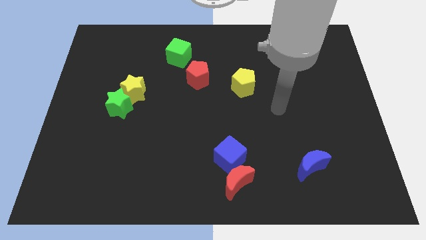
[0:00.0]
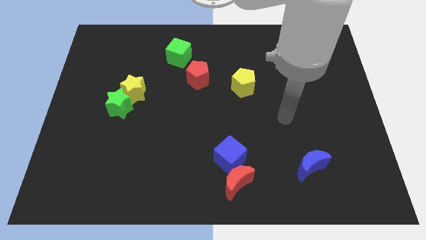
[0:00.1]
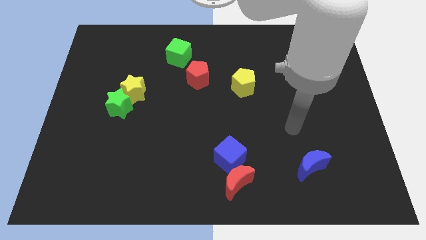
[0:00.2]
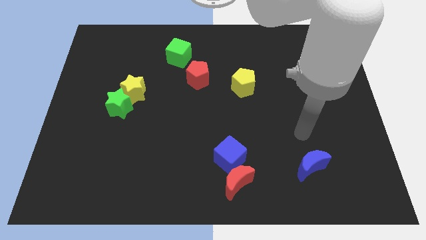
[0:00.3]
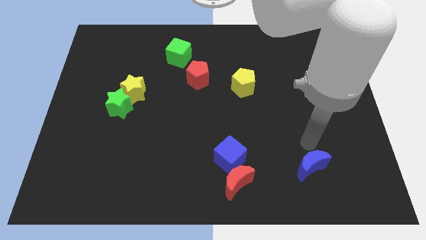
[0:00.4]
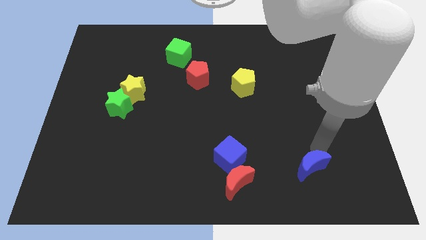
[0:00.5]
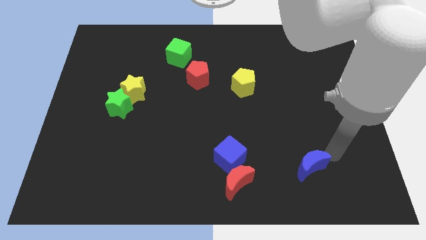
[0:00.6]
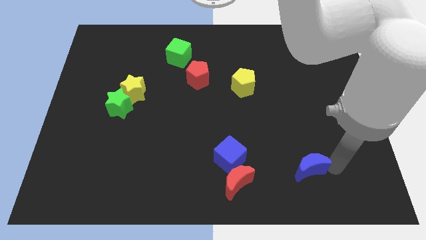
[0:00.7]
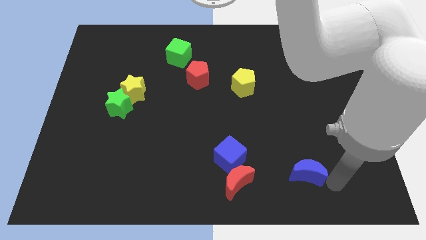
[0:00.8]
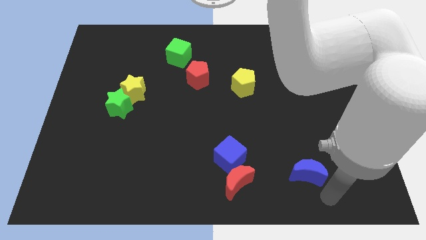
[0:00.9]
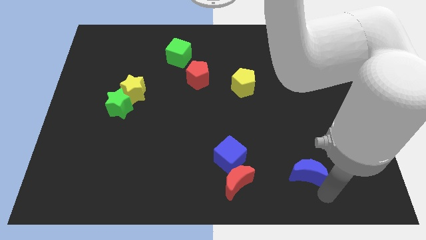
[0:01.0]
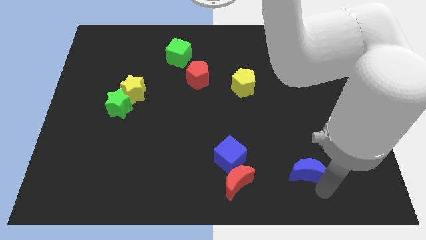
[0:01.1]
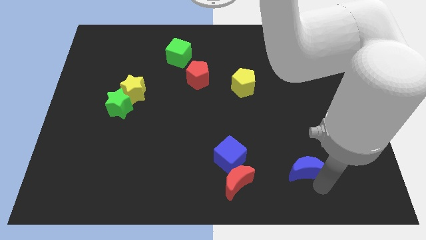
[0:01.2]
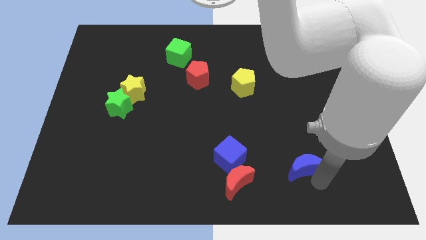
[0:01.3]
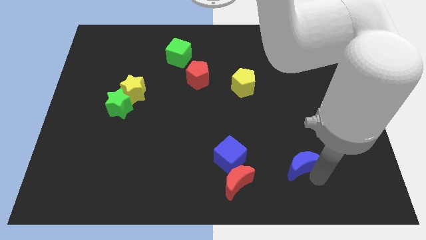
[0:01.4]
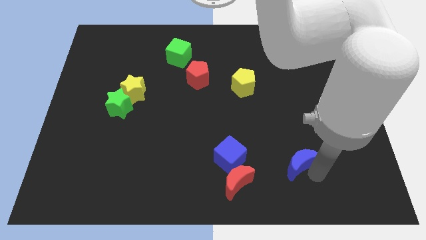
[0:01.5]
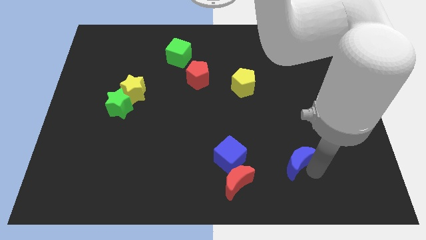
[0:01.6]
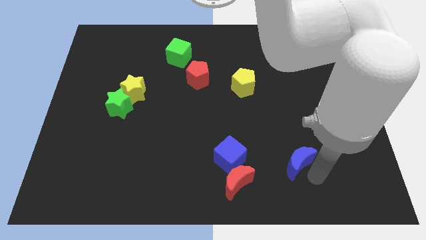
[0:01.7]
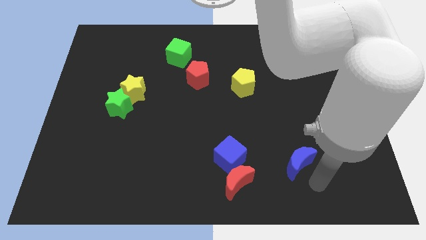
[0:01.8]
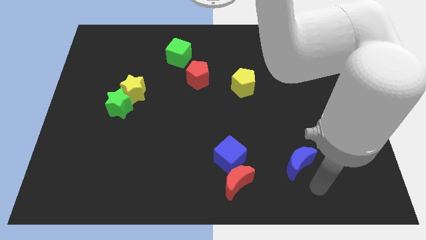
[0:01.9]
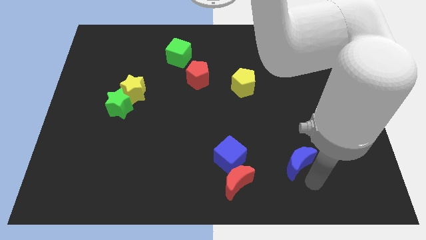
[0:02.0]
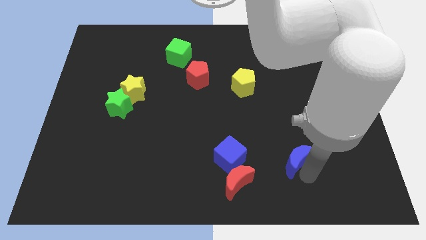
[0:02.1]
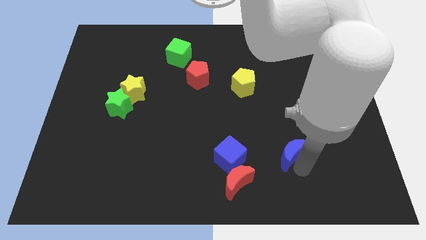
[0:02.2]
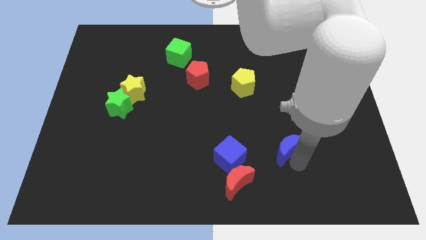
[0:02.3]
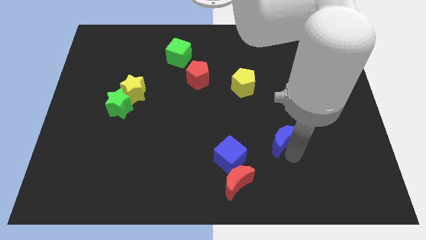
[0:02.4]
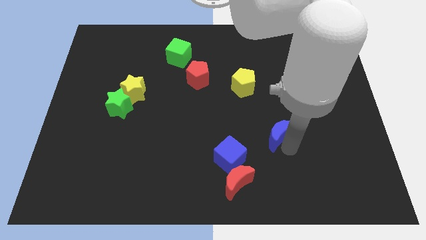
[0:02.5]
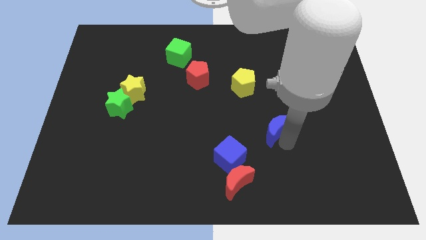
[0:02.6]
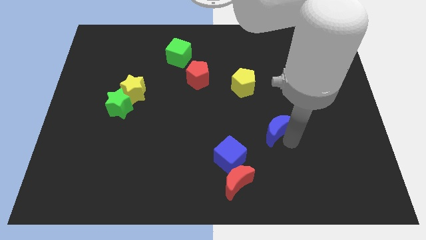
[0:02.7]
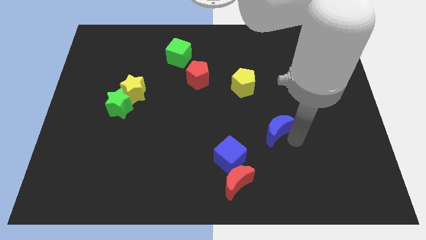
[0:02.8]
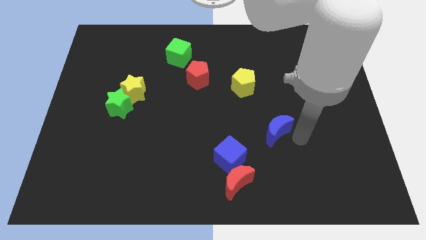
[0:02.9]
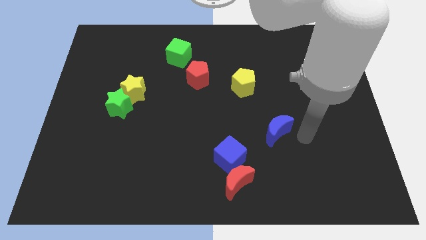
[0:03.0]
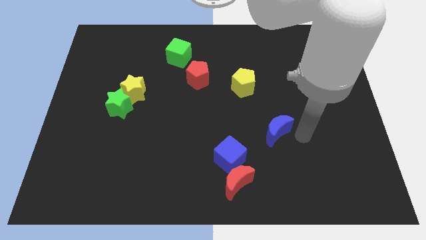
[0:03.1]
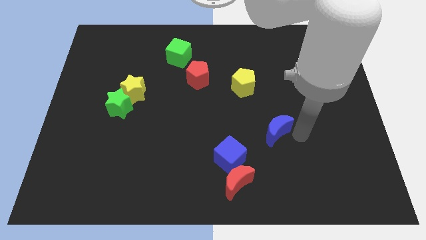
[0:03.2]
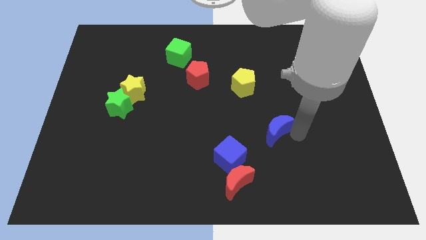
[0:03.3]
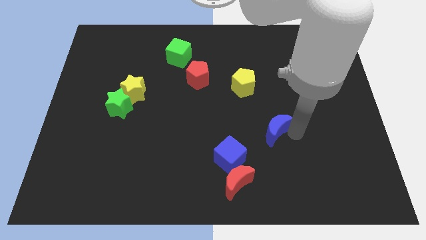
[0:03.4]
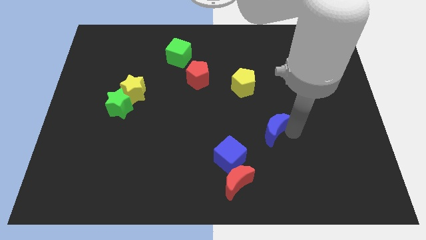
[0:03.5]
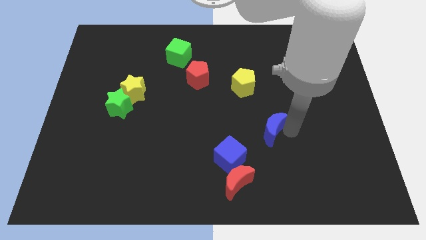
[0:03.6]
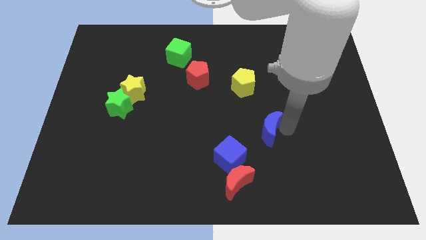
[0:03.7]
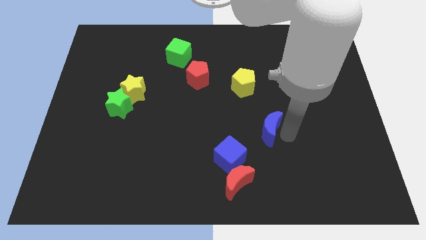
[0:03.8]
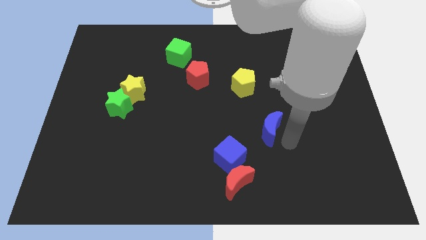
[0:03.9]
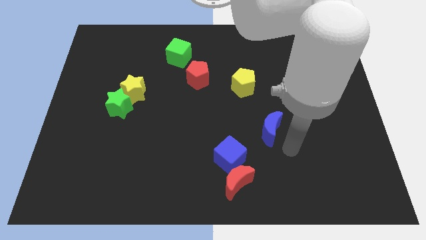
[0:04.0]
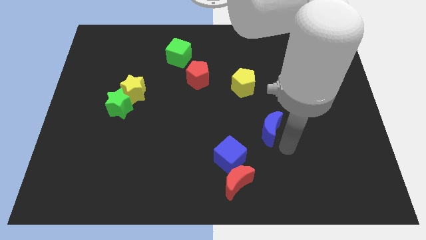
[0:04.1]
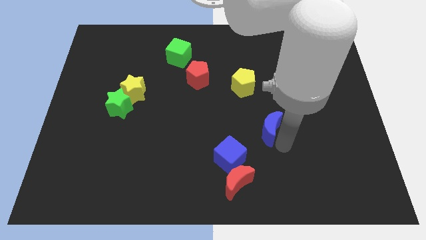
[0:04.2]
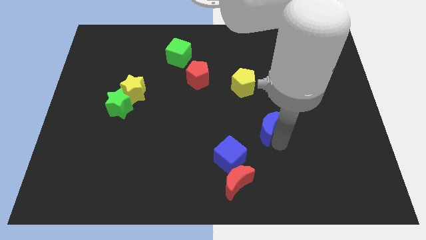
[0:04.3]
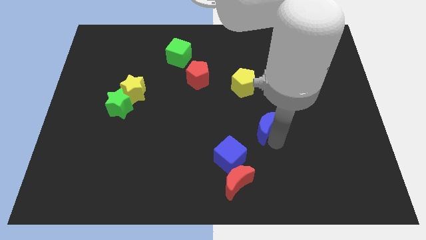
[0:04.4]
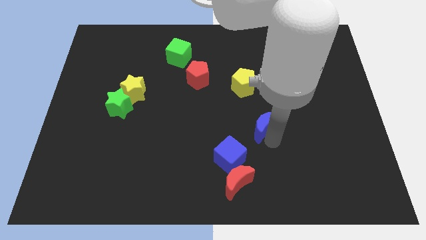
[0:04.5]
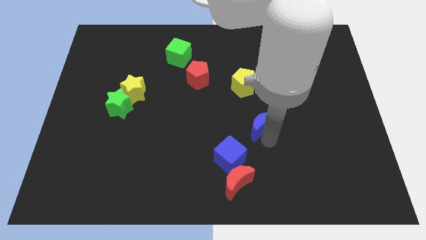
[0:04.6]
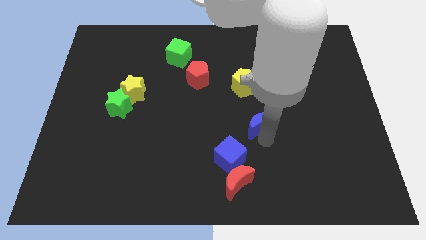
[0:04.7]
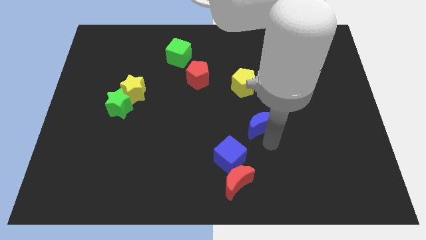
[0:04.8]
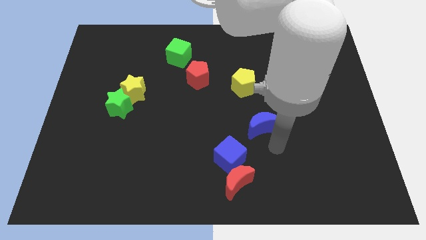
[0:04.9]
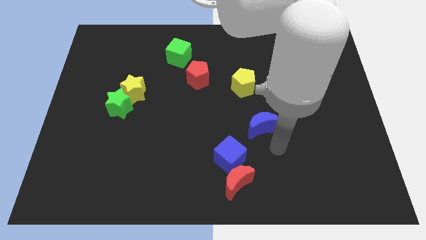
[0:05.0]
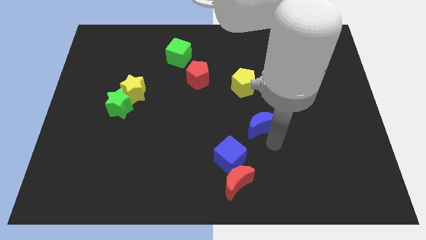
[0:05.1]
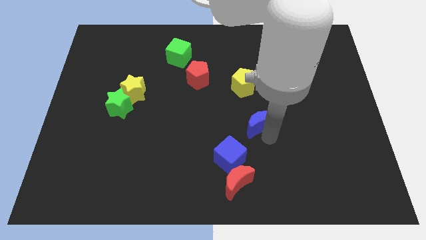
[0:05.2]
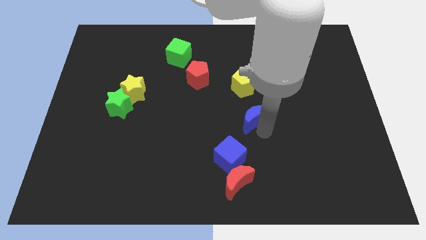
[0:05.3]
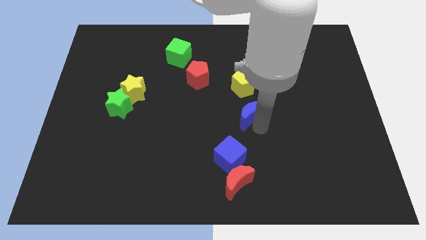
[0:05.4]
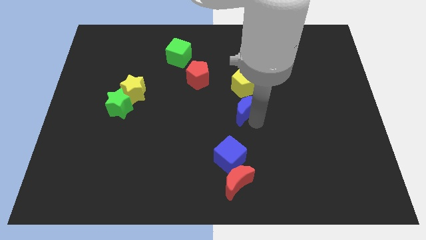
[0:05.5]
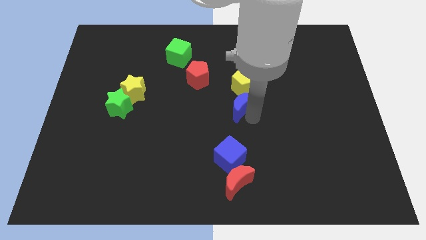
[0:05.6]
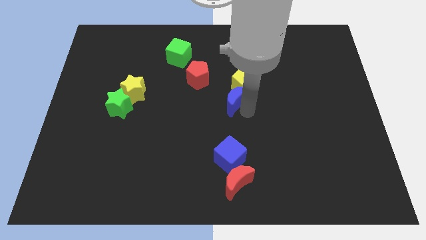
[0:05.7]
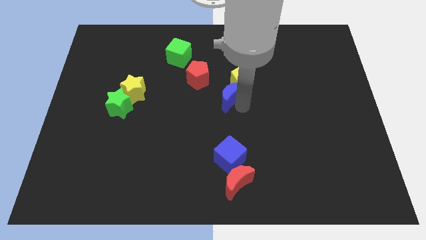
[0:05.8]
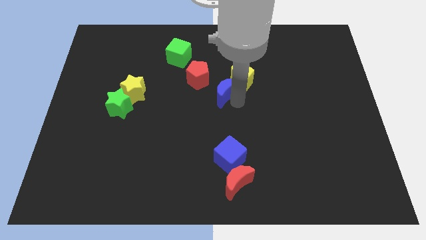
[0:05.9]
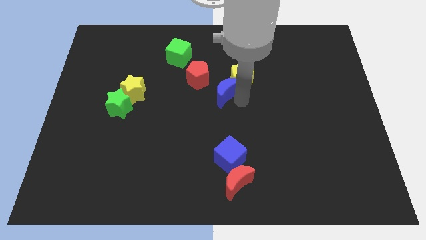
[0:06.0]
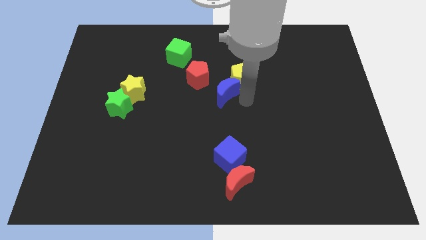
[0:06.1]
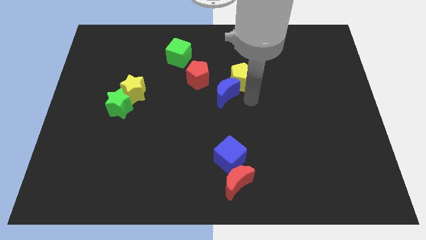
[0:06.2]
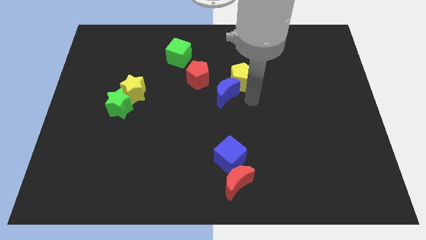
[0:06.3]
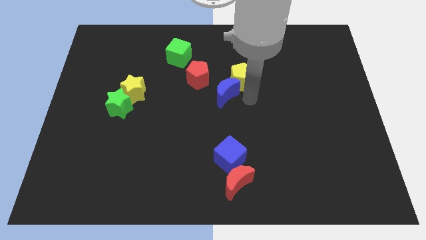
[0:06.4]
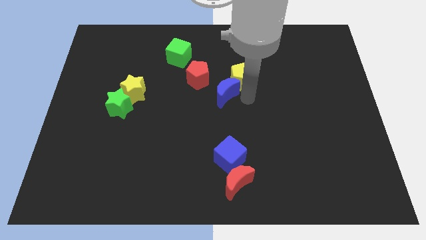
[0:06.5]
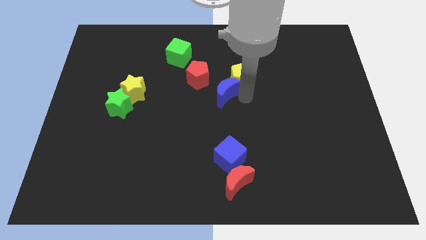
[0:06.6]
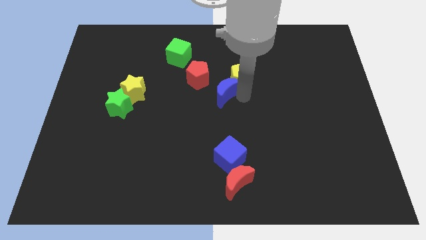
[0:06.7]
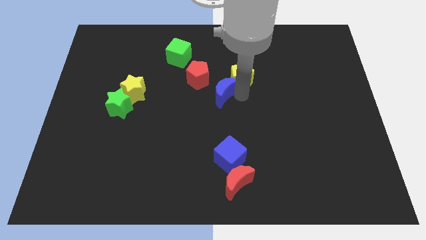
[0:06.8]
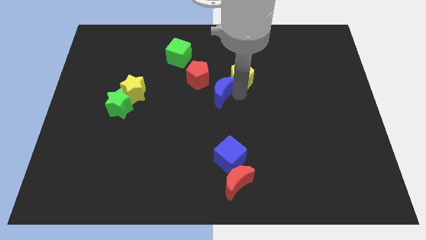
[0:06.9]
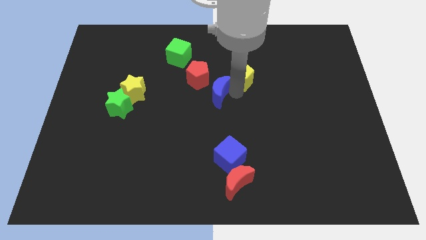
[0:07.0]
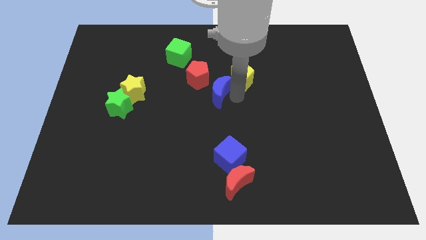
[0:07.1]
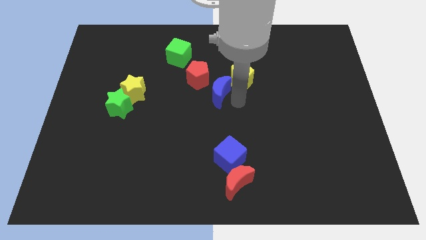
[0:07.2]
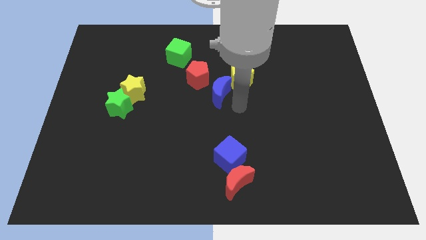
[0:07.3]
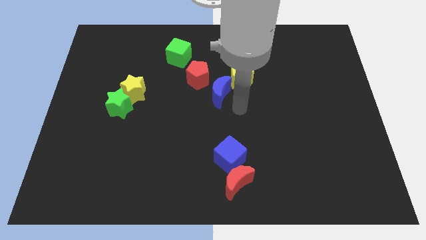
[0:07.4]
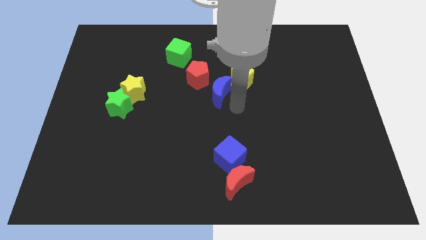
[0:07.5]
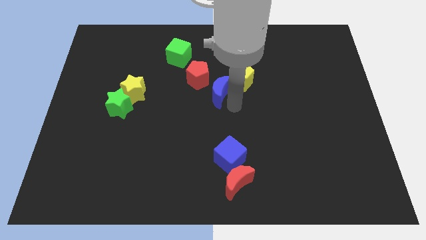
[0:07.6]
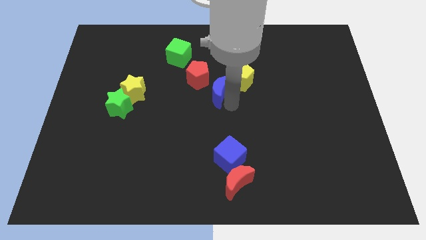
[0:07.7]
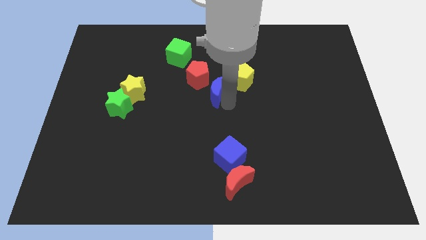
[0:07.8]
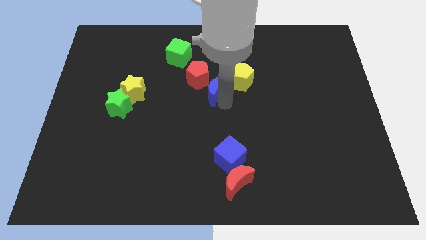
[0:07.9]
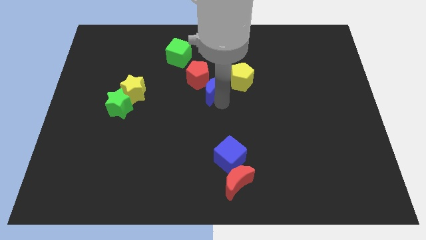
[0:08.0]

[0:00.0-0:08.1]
slide the blue moon to the red pentagon
